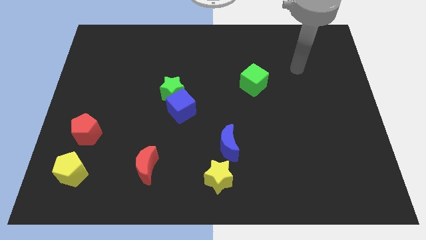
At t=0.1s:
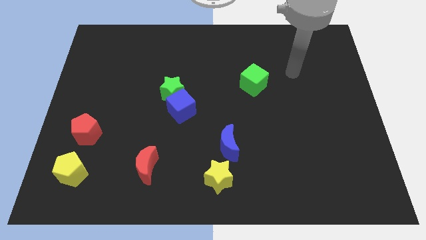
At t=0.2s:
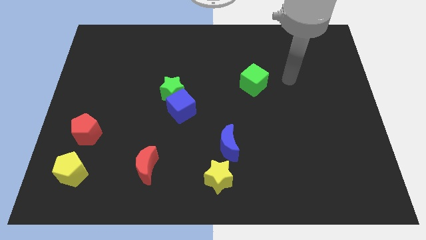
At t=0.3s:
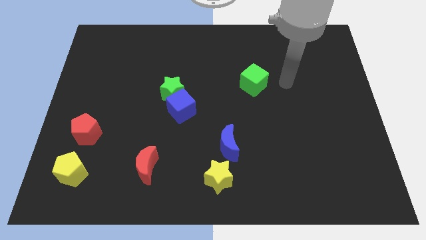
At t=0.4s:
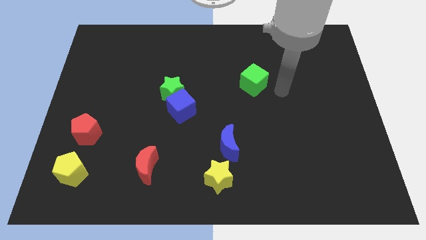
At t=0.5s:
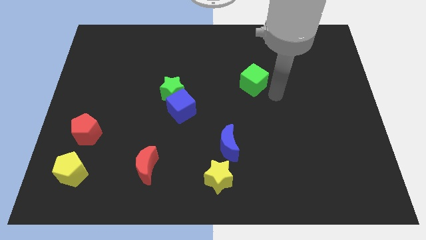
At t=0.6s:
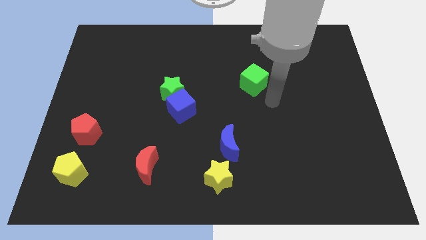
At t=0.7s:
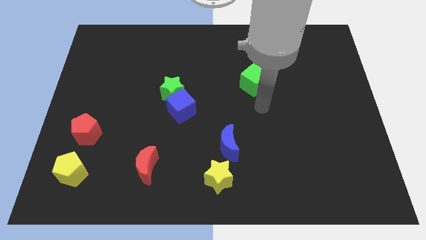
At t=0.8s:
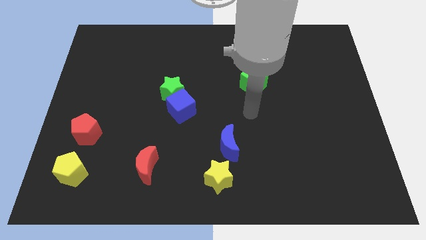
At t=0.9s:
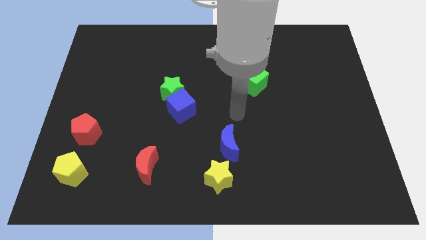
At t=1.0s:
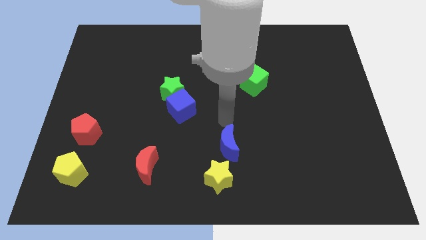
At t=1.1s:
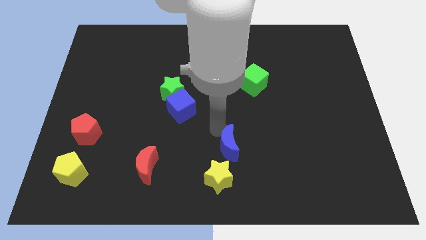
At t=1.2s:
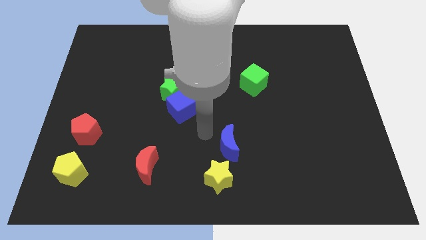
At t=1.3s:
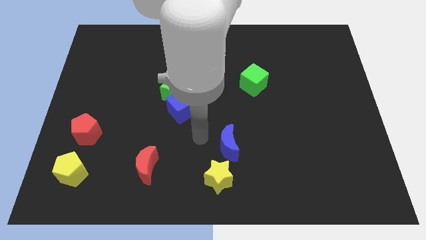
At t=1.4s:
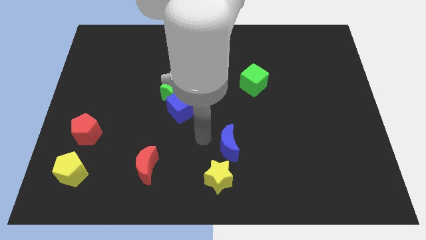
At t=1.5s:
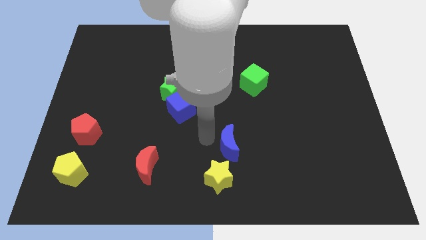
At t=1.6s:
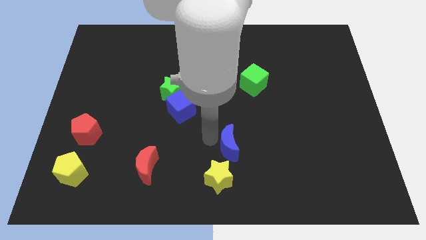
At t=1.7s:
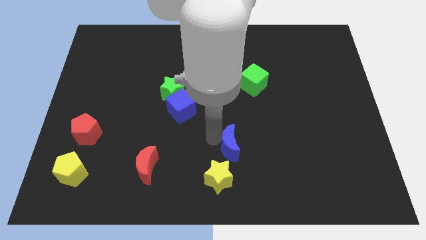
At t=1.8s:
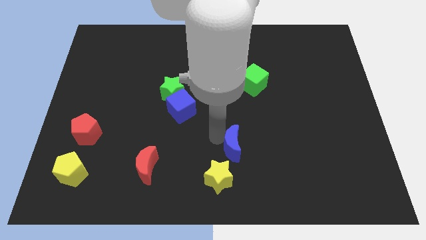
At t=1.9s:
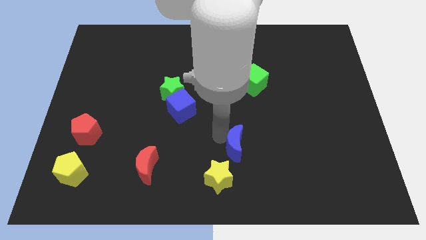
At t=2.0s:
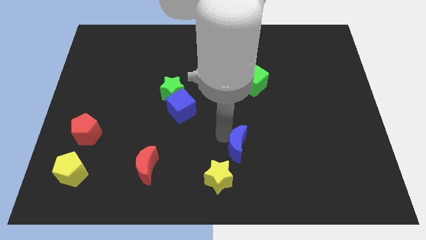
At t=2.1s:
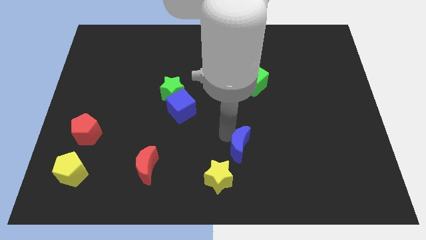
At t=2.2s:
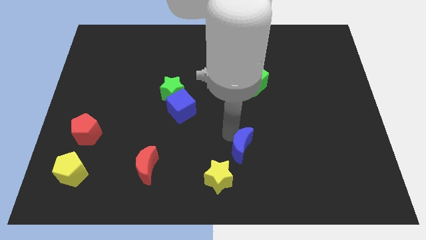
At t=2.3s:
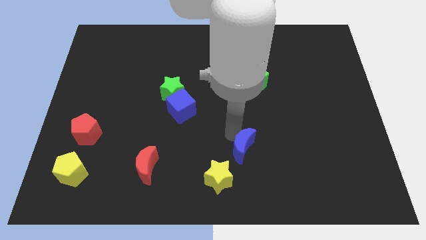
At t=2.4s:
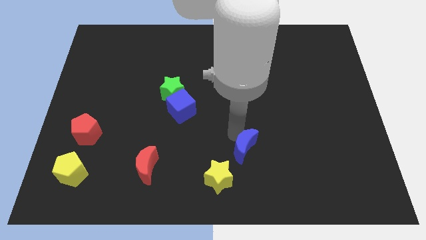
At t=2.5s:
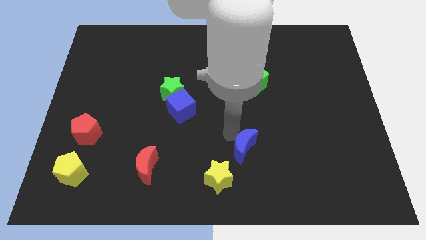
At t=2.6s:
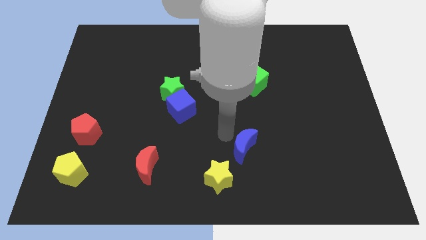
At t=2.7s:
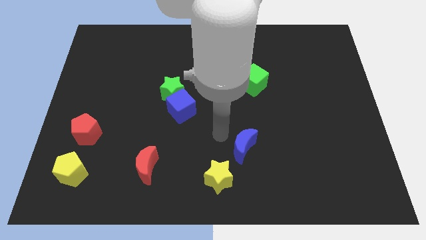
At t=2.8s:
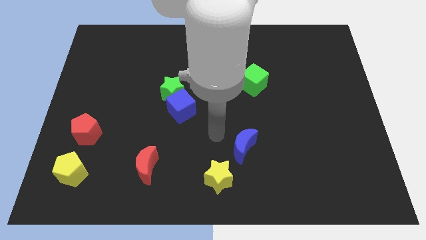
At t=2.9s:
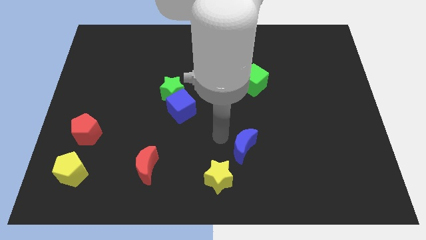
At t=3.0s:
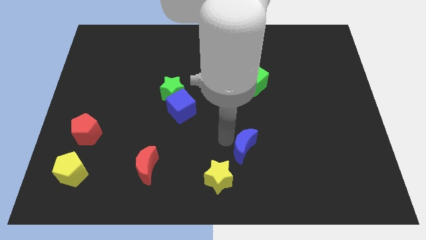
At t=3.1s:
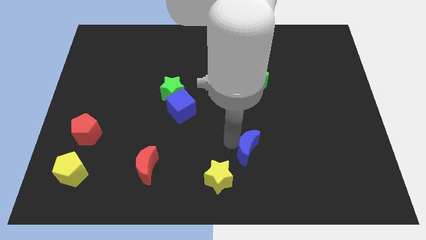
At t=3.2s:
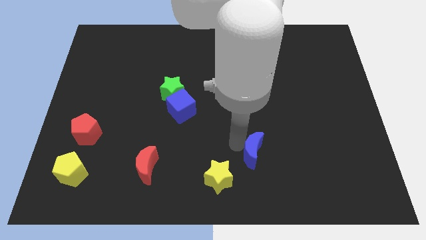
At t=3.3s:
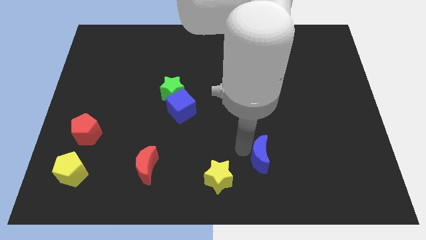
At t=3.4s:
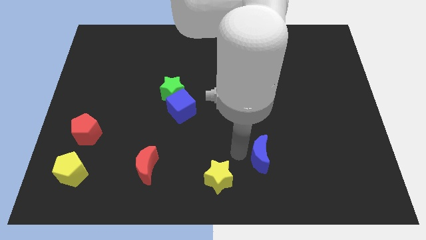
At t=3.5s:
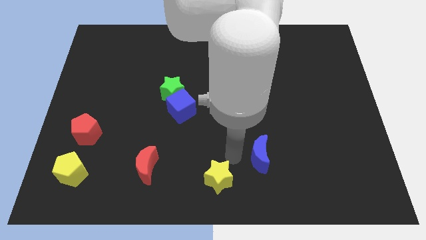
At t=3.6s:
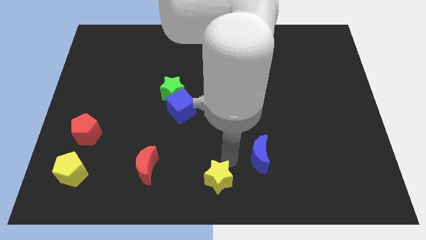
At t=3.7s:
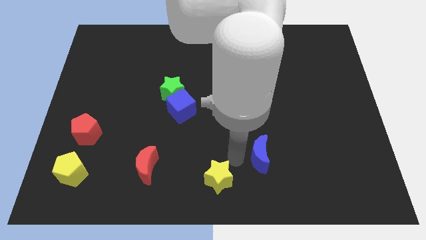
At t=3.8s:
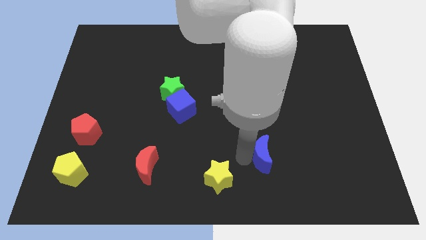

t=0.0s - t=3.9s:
push the blue moon slightly right

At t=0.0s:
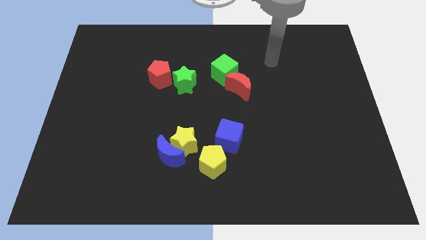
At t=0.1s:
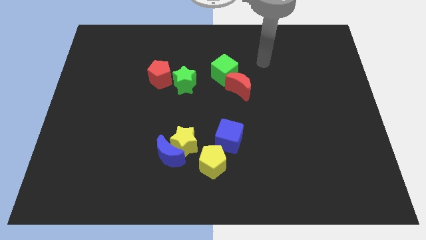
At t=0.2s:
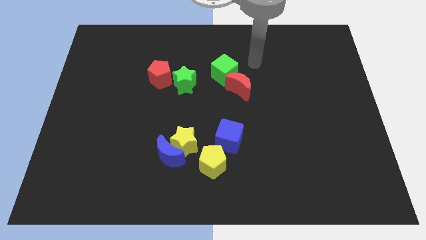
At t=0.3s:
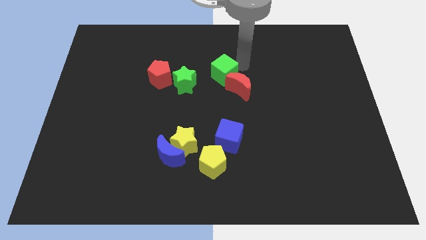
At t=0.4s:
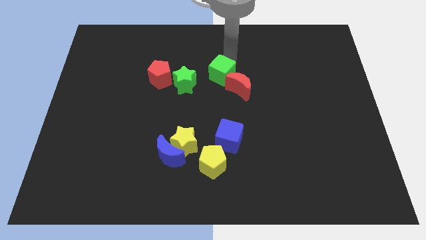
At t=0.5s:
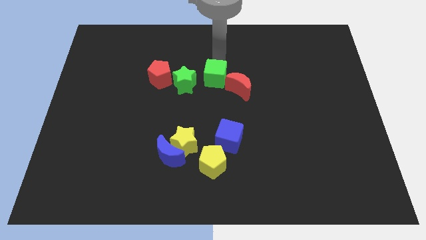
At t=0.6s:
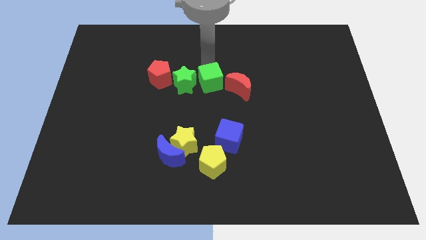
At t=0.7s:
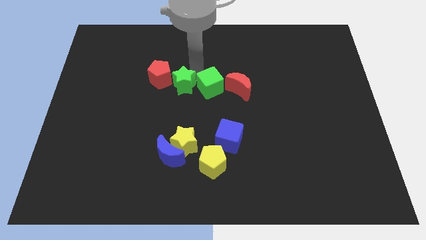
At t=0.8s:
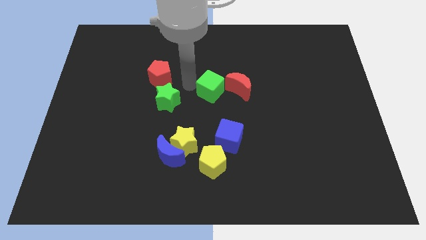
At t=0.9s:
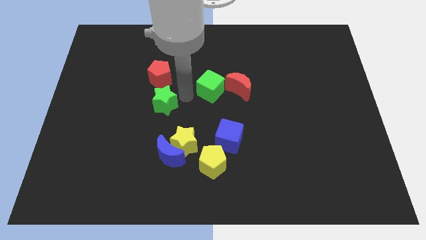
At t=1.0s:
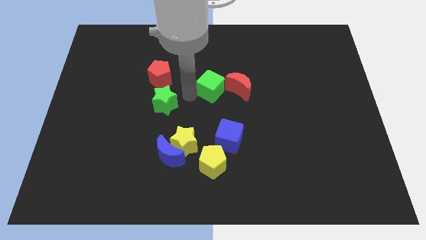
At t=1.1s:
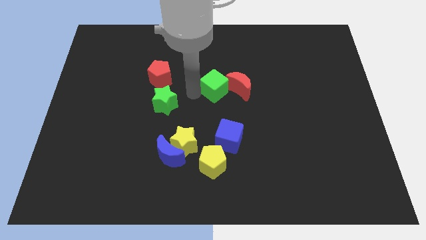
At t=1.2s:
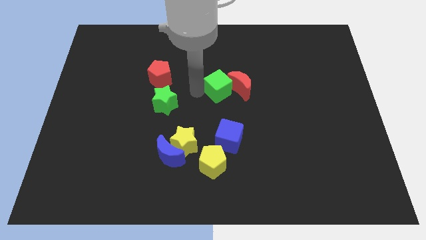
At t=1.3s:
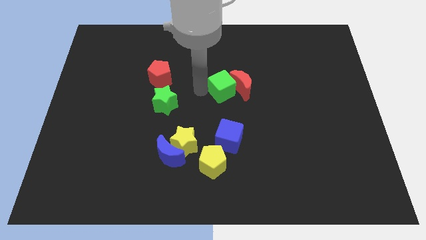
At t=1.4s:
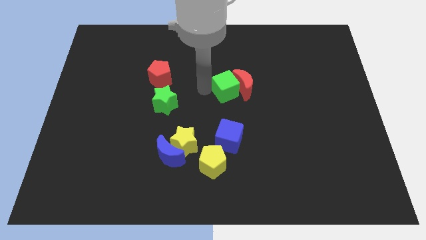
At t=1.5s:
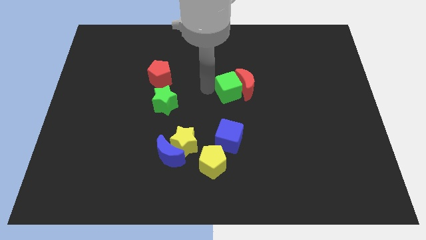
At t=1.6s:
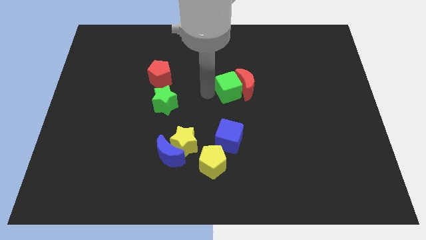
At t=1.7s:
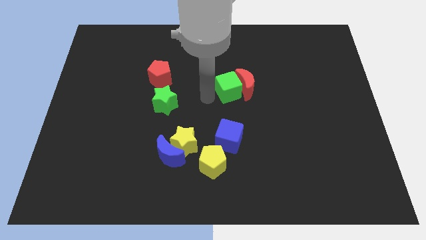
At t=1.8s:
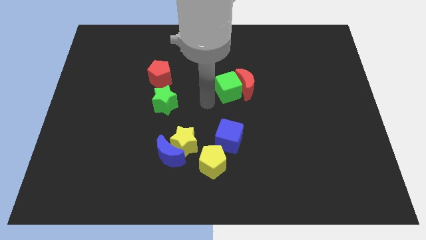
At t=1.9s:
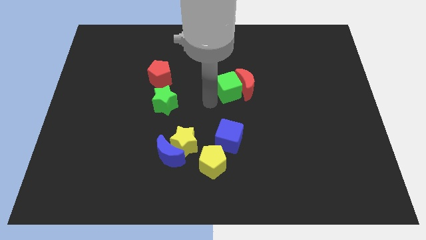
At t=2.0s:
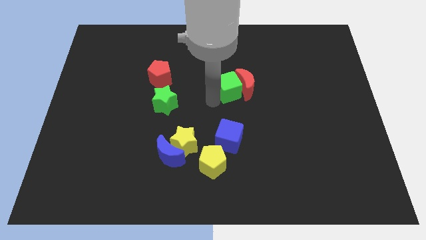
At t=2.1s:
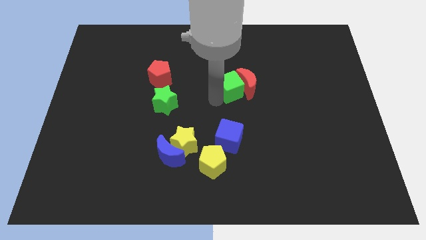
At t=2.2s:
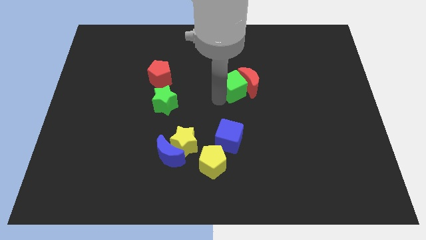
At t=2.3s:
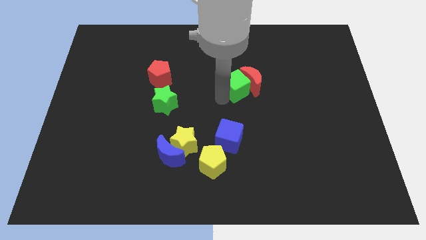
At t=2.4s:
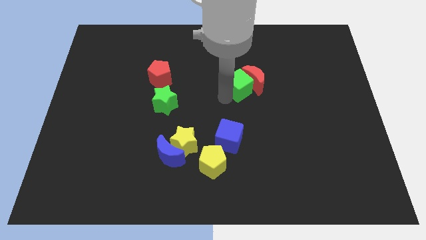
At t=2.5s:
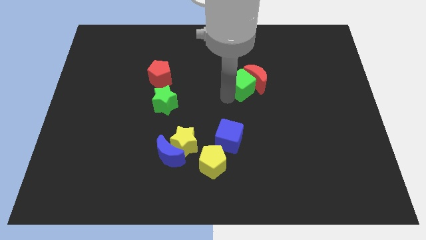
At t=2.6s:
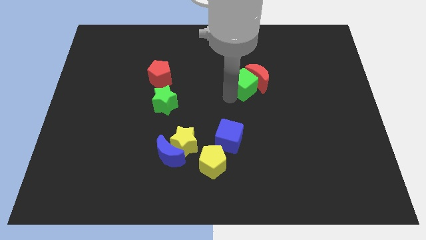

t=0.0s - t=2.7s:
slightly move the green cube down and to the right

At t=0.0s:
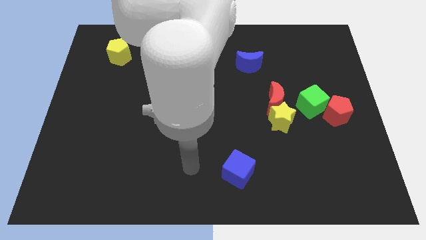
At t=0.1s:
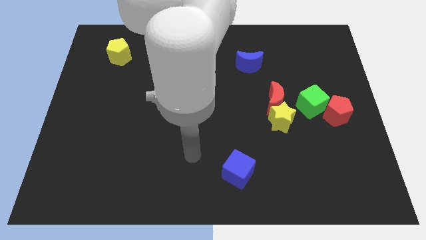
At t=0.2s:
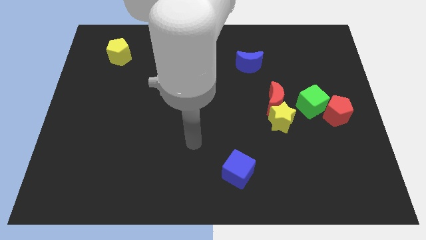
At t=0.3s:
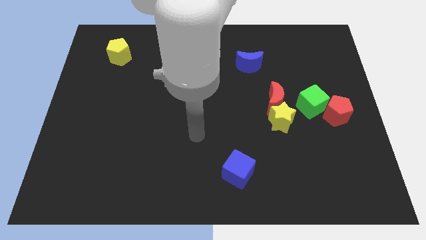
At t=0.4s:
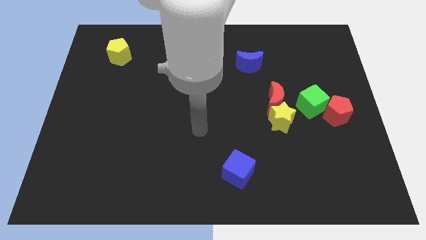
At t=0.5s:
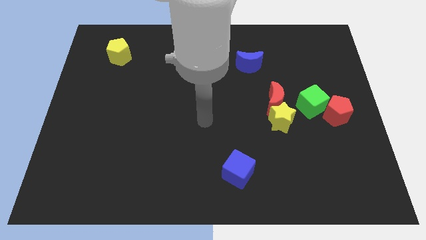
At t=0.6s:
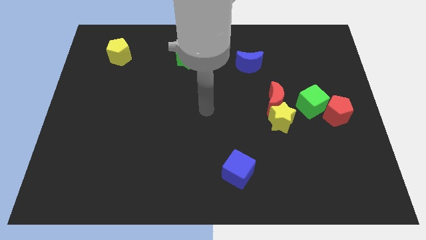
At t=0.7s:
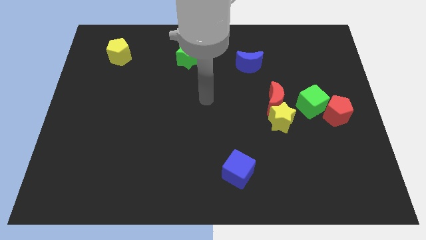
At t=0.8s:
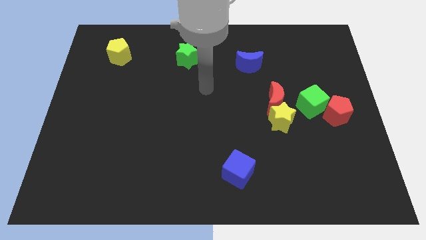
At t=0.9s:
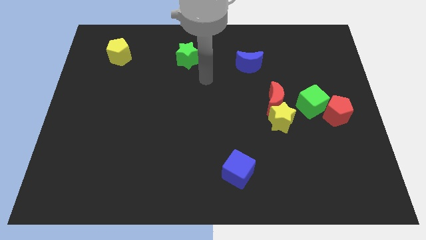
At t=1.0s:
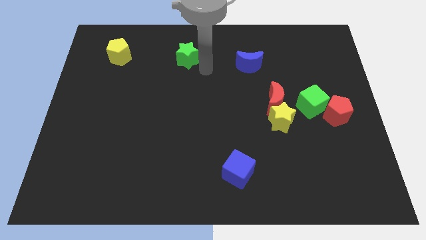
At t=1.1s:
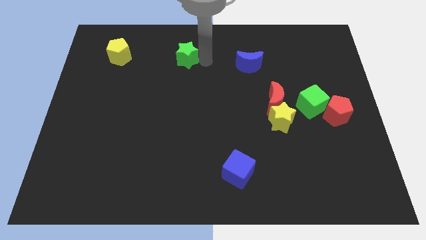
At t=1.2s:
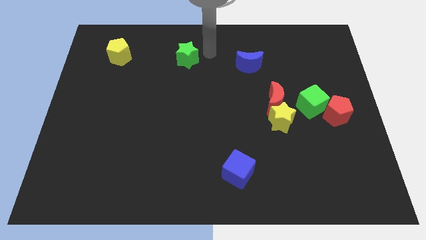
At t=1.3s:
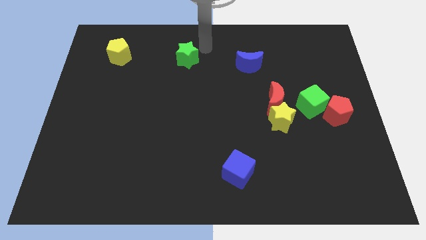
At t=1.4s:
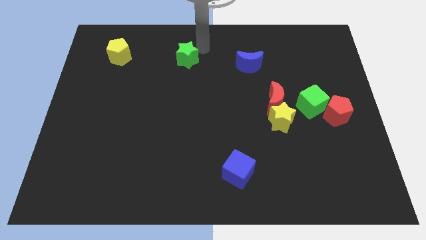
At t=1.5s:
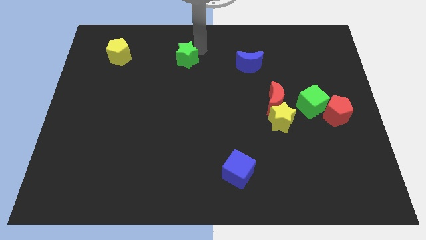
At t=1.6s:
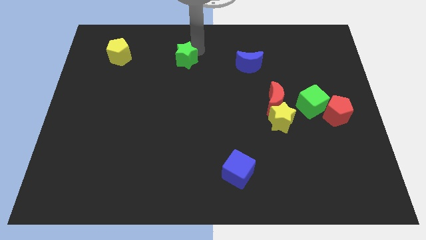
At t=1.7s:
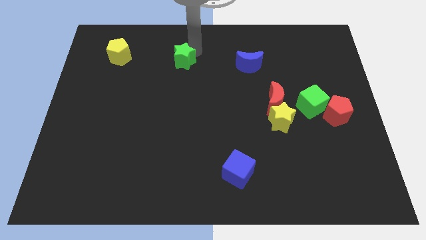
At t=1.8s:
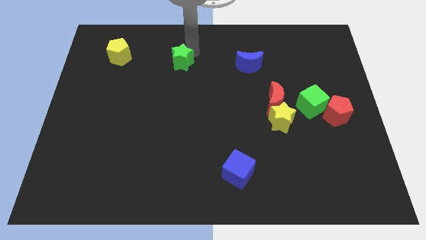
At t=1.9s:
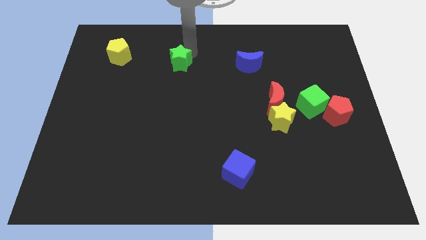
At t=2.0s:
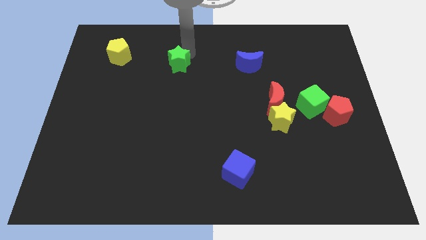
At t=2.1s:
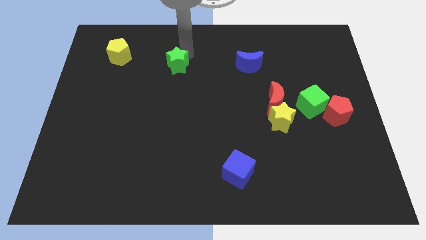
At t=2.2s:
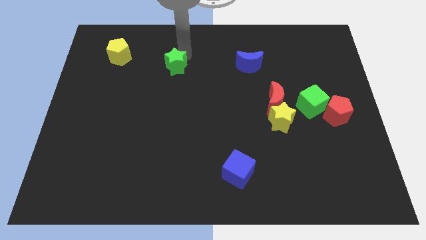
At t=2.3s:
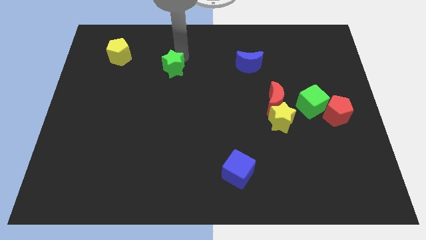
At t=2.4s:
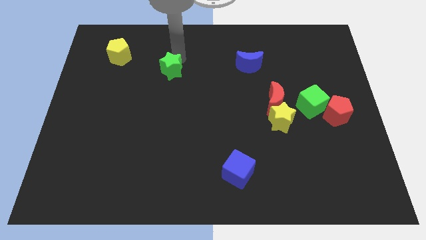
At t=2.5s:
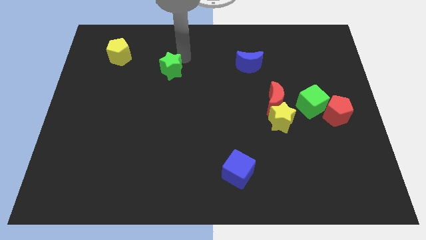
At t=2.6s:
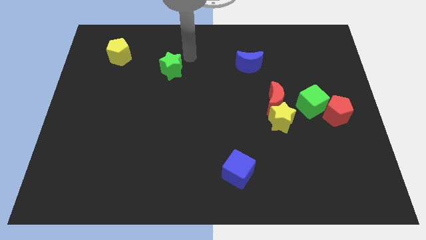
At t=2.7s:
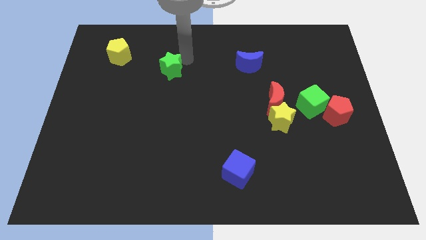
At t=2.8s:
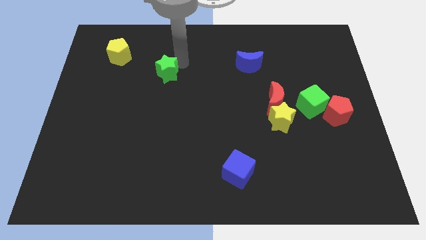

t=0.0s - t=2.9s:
slide the green star somewhat down and then to the left
